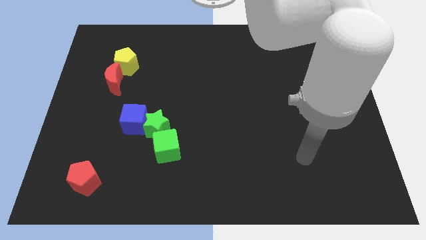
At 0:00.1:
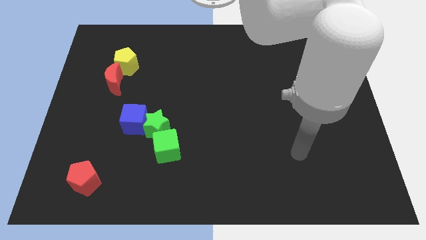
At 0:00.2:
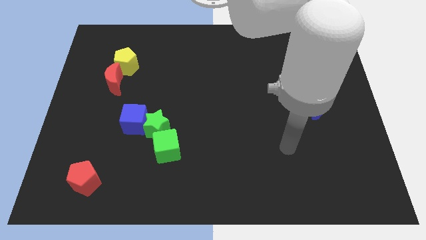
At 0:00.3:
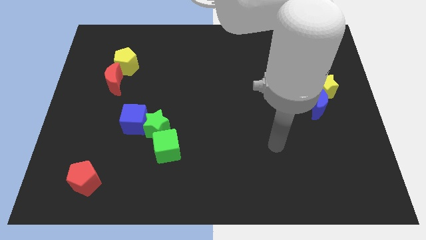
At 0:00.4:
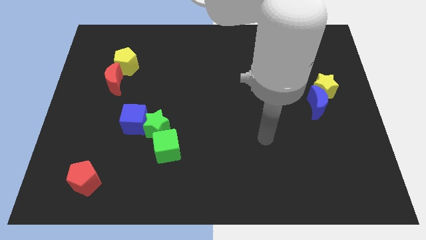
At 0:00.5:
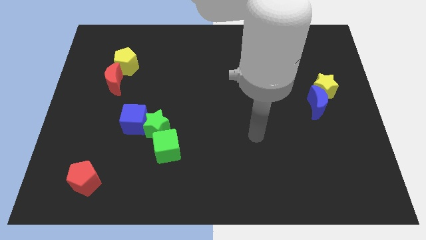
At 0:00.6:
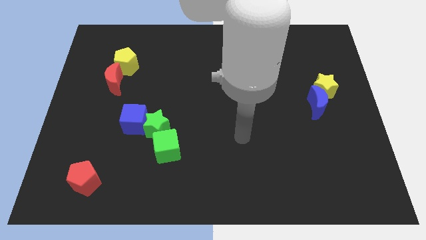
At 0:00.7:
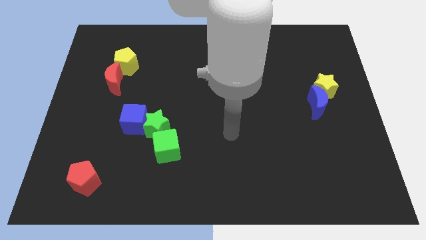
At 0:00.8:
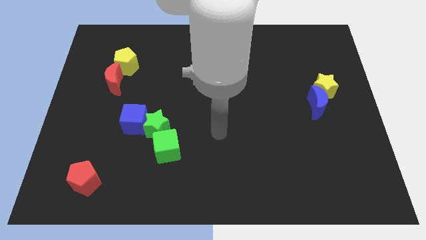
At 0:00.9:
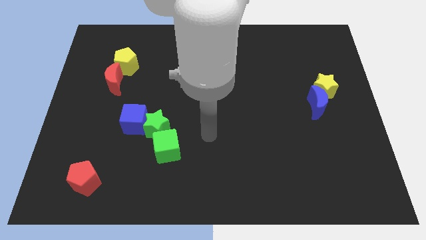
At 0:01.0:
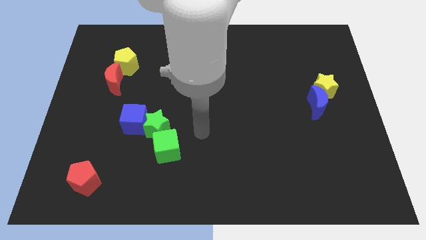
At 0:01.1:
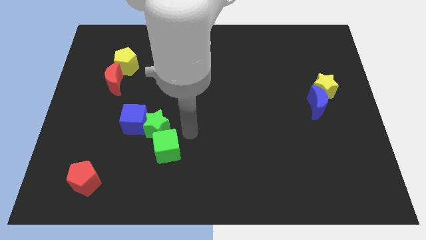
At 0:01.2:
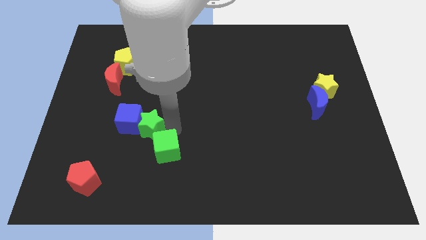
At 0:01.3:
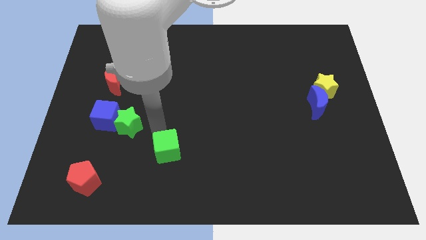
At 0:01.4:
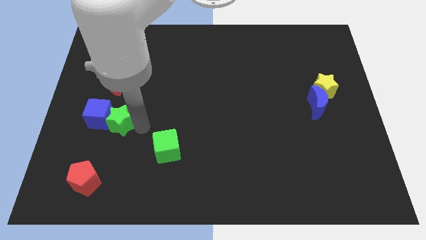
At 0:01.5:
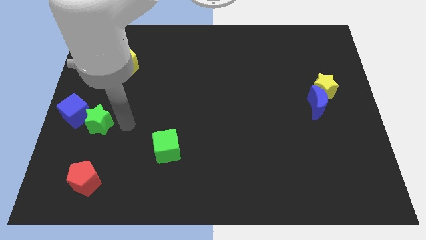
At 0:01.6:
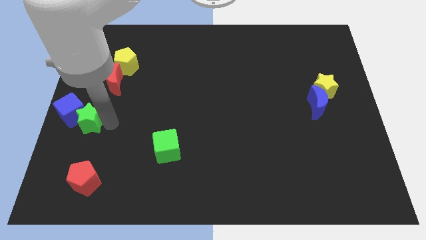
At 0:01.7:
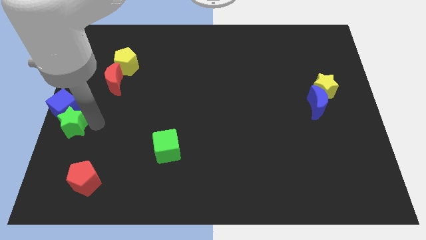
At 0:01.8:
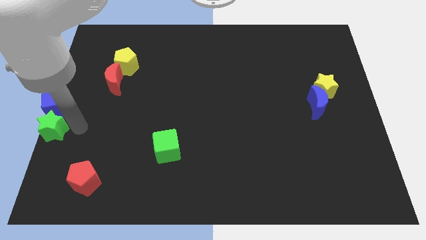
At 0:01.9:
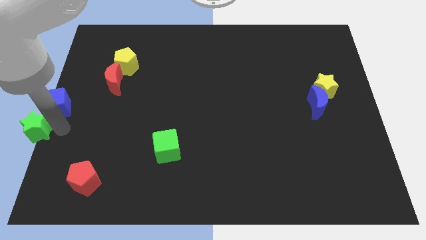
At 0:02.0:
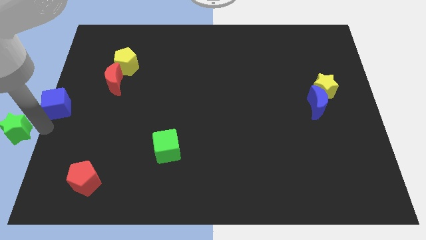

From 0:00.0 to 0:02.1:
move the blue cube away from the green star

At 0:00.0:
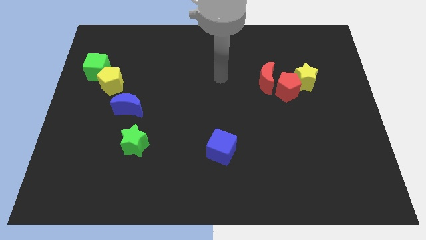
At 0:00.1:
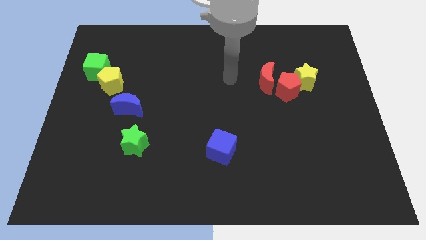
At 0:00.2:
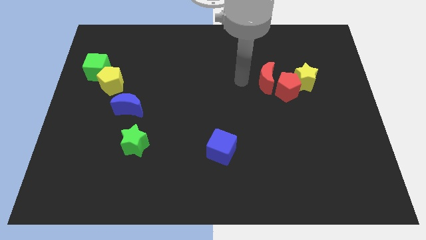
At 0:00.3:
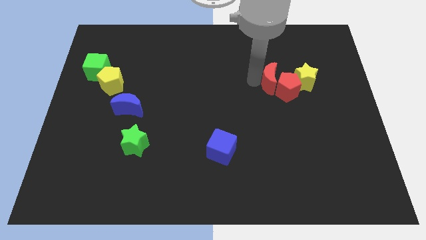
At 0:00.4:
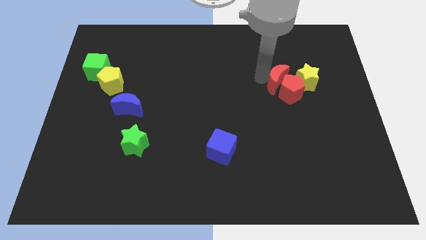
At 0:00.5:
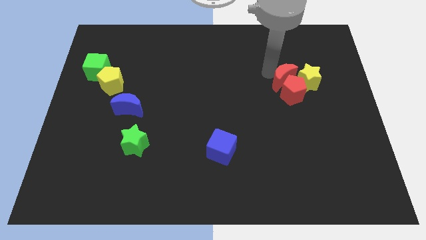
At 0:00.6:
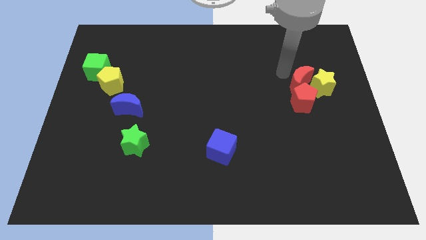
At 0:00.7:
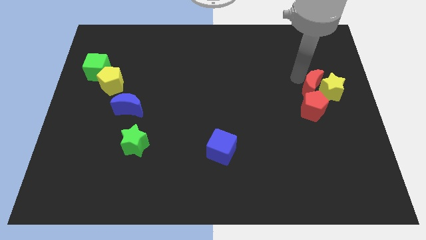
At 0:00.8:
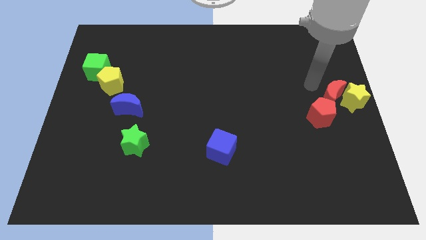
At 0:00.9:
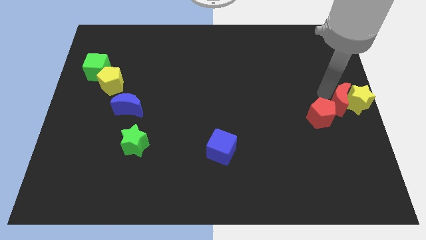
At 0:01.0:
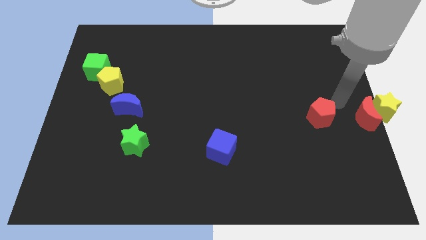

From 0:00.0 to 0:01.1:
pull the red pentagon apart from the yellow star and red moon

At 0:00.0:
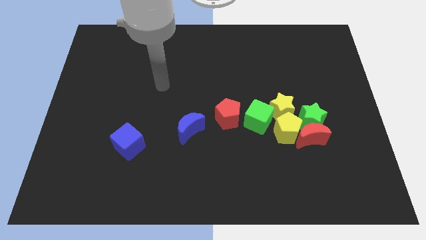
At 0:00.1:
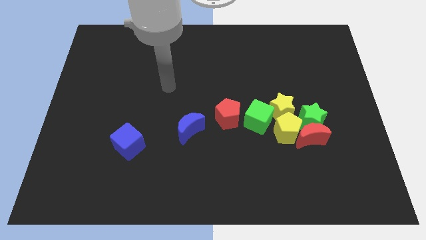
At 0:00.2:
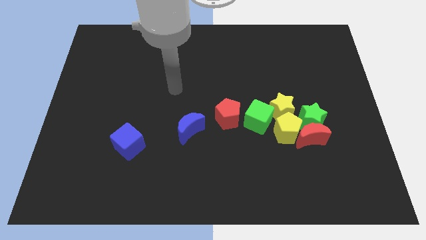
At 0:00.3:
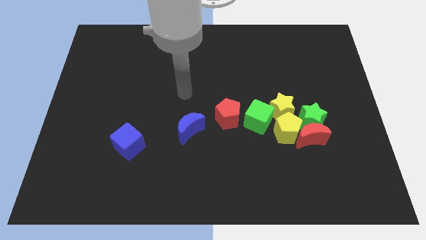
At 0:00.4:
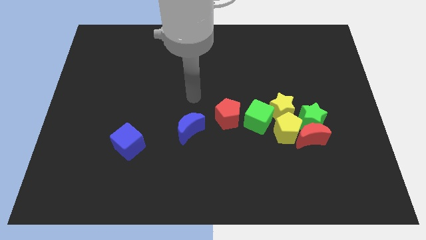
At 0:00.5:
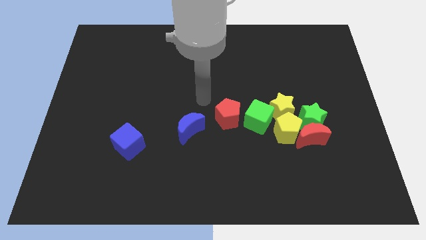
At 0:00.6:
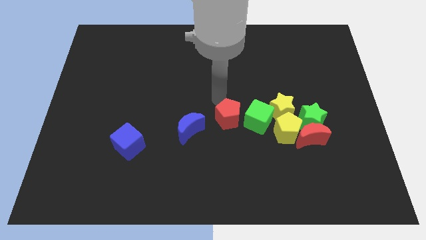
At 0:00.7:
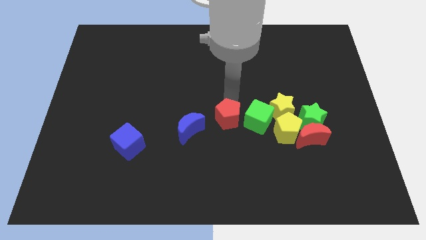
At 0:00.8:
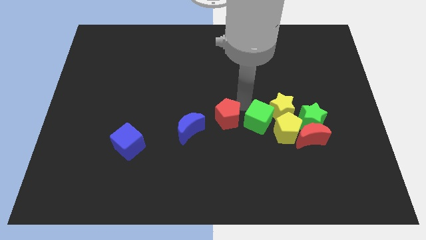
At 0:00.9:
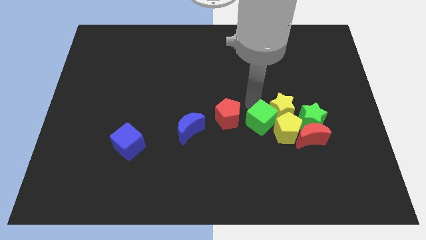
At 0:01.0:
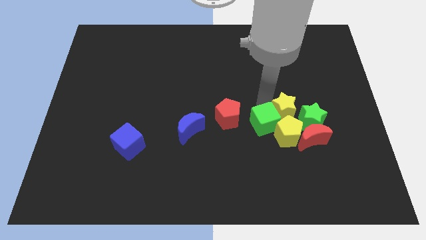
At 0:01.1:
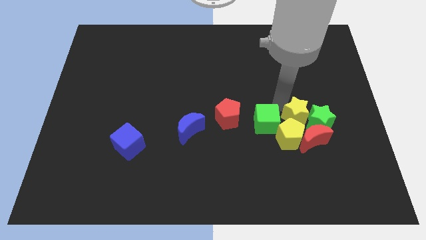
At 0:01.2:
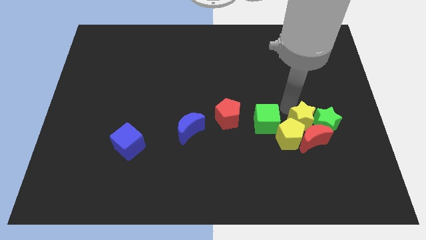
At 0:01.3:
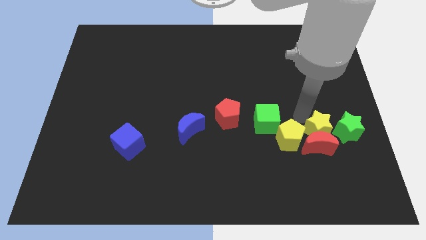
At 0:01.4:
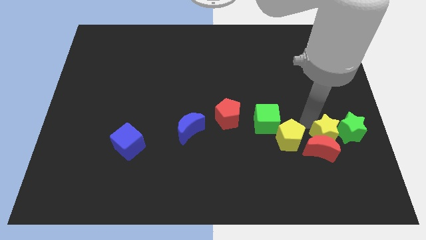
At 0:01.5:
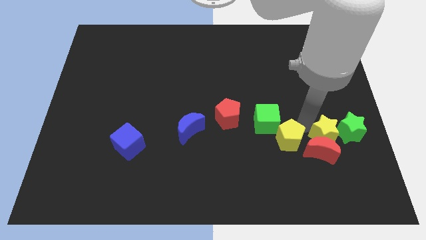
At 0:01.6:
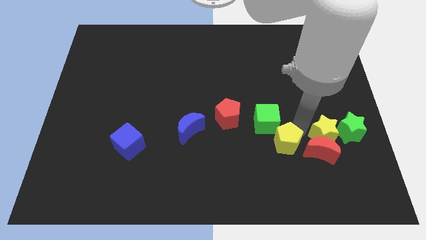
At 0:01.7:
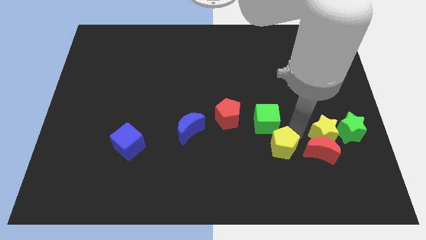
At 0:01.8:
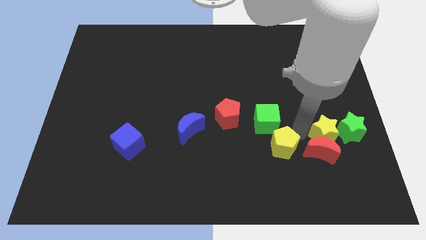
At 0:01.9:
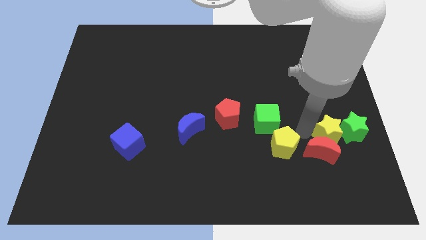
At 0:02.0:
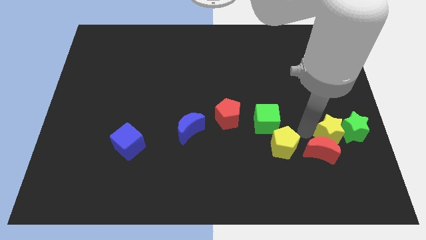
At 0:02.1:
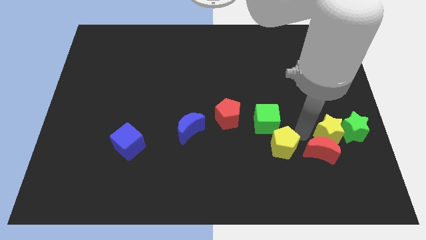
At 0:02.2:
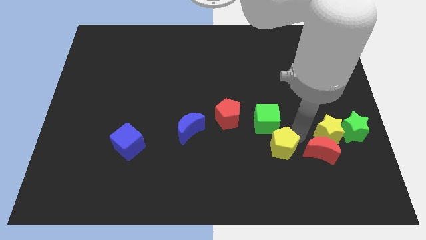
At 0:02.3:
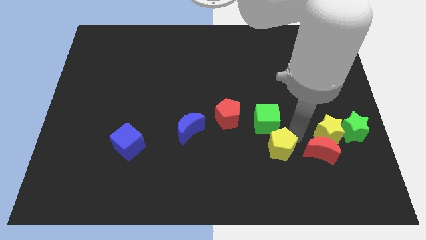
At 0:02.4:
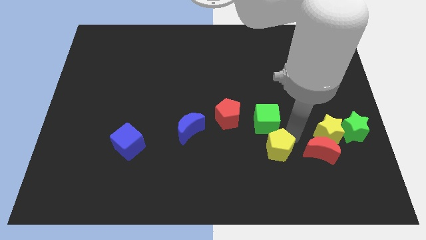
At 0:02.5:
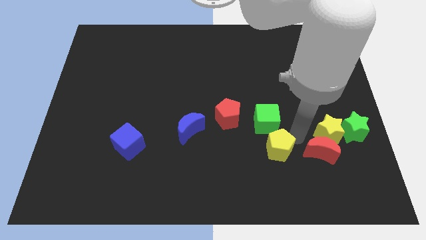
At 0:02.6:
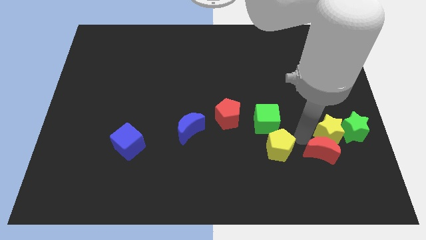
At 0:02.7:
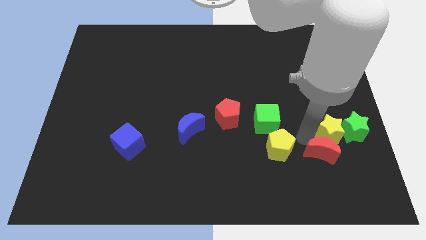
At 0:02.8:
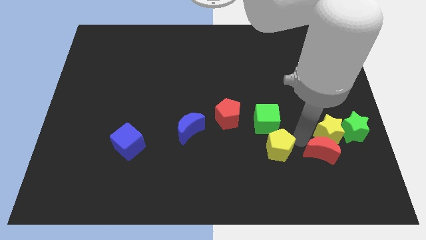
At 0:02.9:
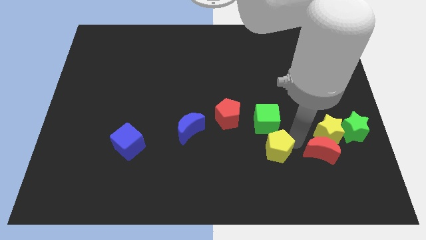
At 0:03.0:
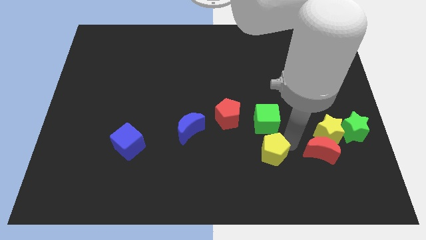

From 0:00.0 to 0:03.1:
separate the yellow pentagon from the group of blocks

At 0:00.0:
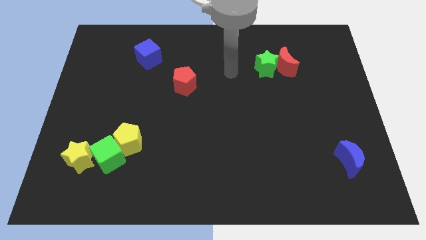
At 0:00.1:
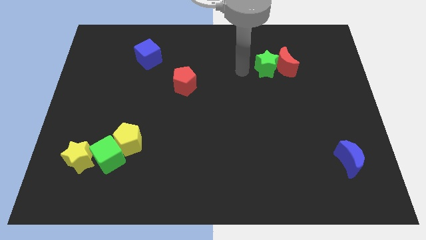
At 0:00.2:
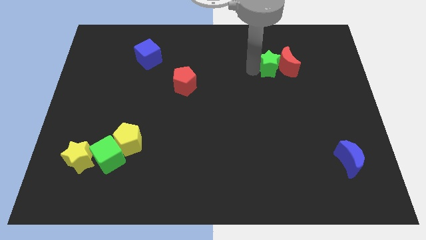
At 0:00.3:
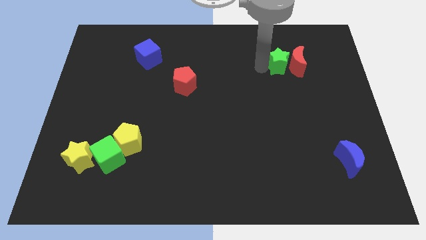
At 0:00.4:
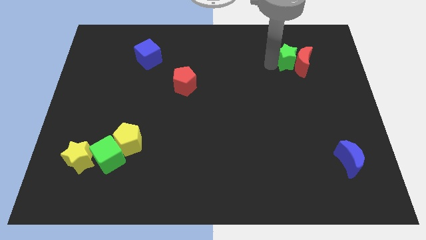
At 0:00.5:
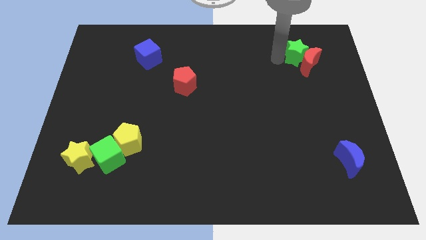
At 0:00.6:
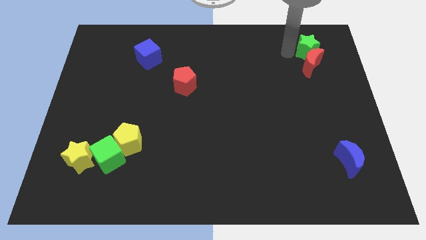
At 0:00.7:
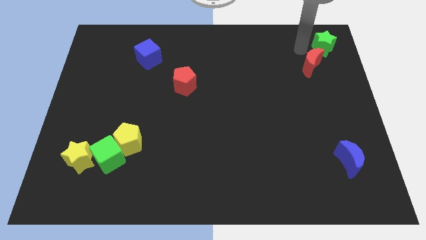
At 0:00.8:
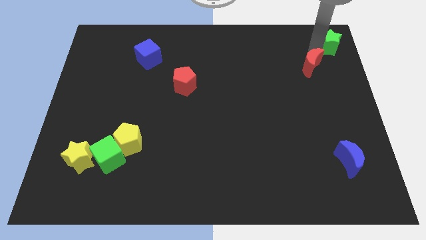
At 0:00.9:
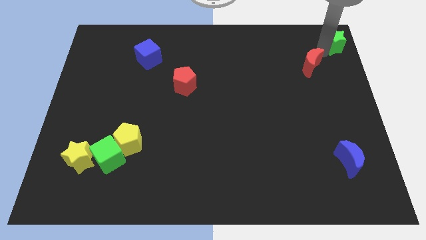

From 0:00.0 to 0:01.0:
pull the red moon apart from the green star

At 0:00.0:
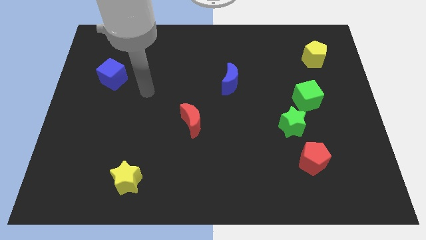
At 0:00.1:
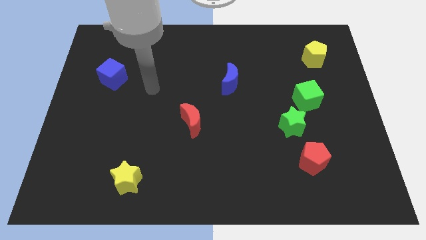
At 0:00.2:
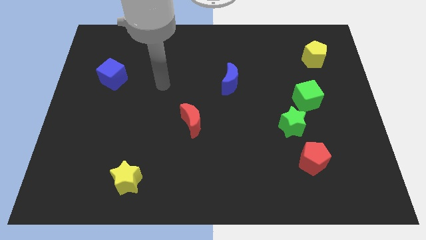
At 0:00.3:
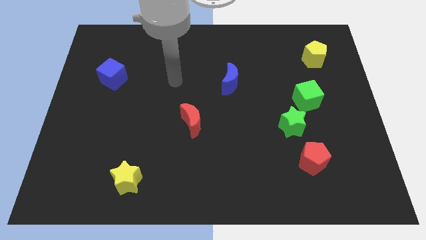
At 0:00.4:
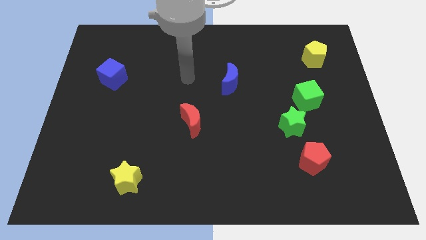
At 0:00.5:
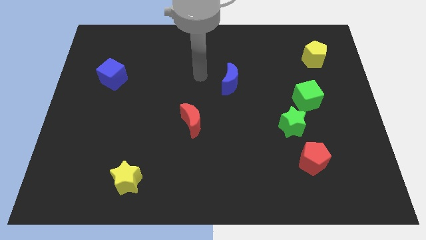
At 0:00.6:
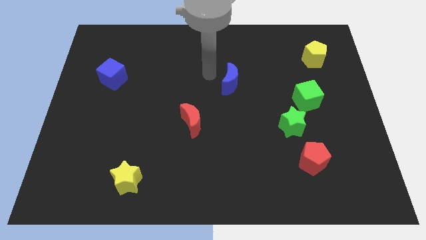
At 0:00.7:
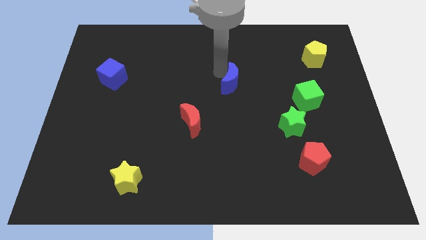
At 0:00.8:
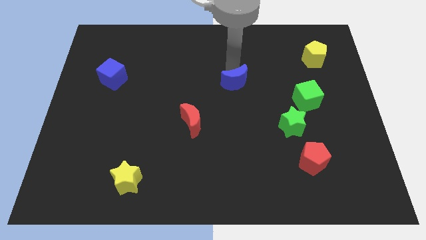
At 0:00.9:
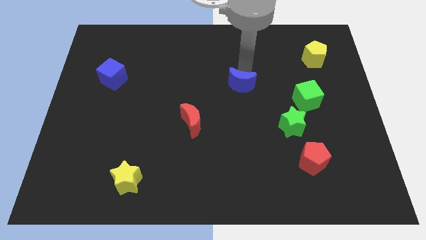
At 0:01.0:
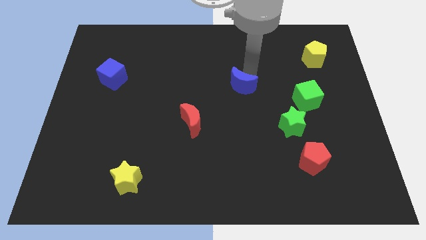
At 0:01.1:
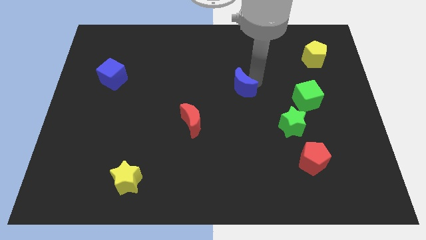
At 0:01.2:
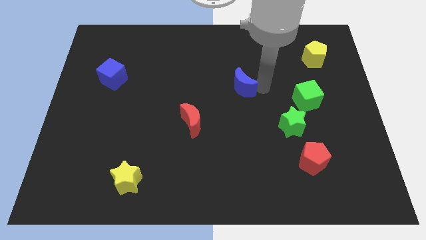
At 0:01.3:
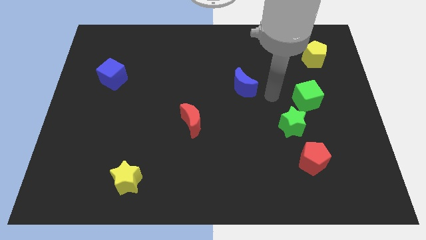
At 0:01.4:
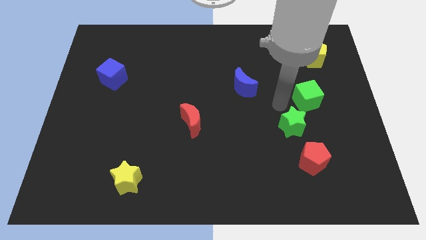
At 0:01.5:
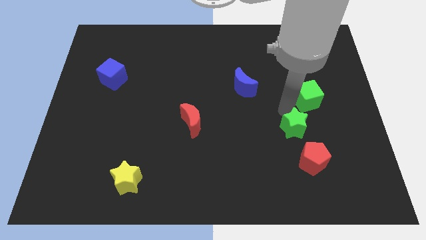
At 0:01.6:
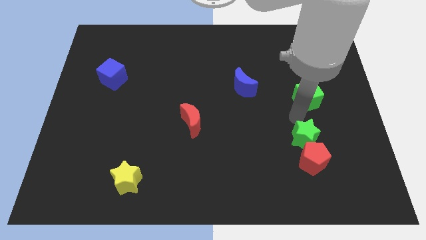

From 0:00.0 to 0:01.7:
separate the green cube from the green star

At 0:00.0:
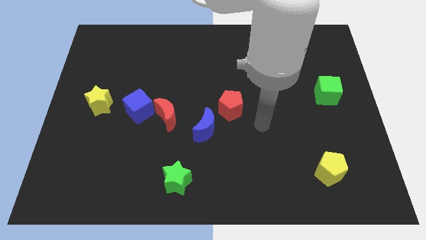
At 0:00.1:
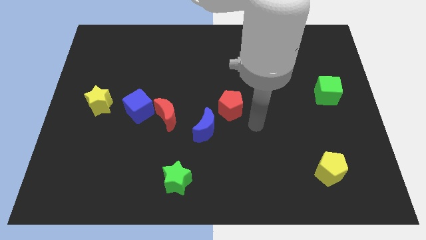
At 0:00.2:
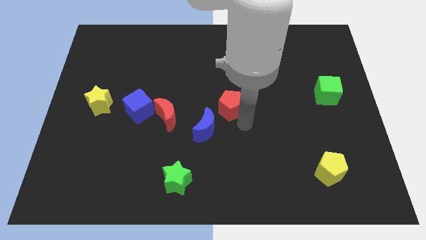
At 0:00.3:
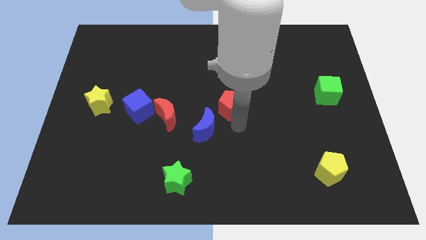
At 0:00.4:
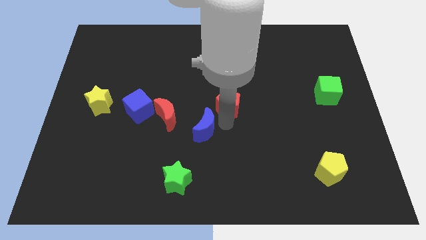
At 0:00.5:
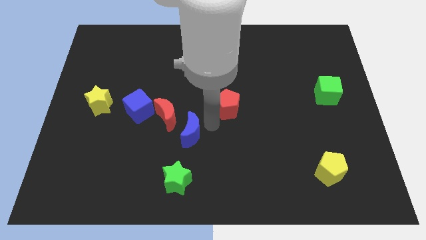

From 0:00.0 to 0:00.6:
move the red pentagon away from the blue moon
